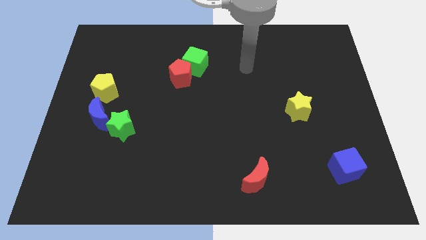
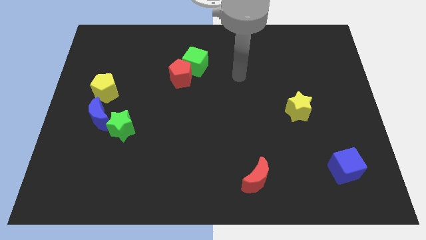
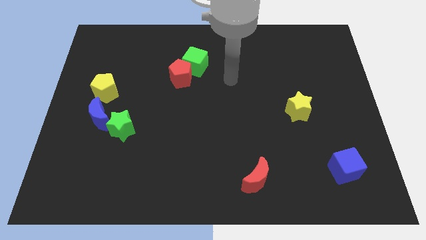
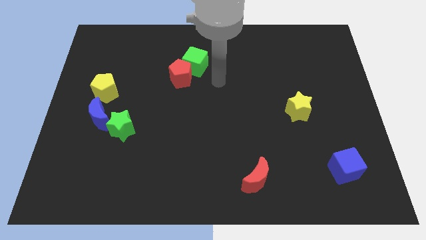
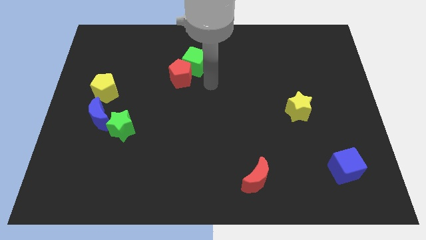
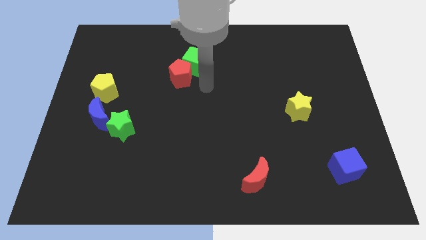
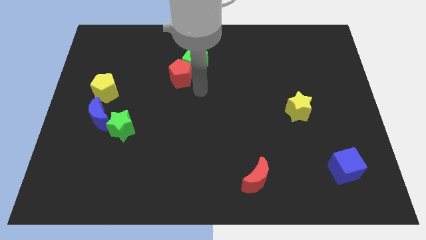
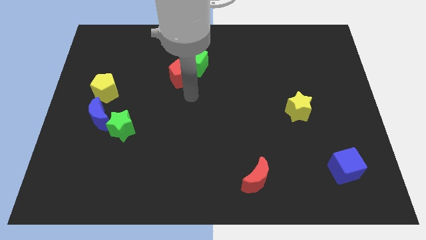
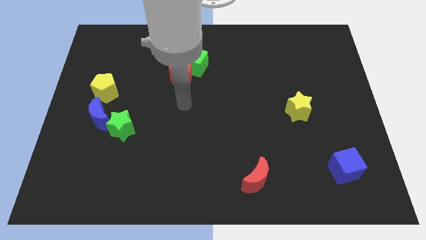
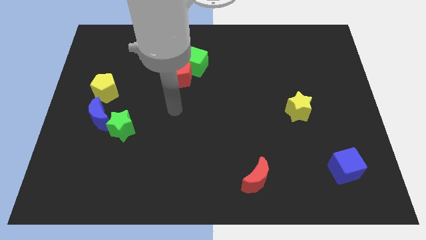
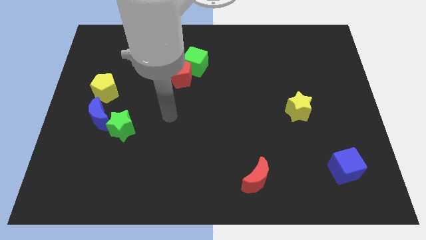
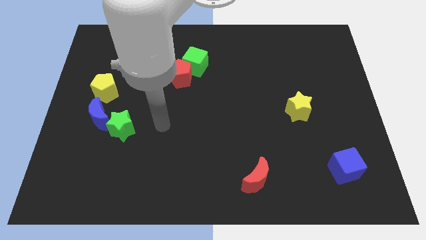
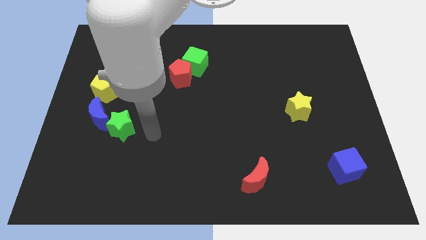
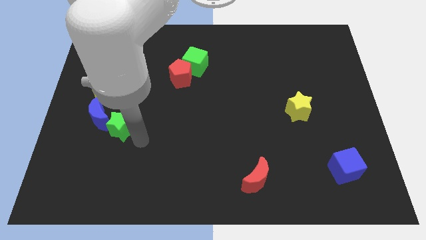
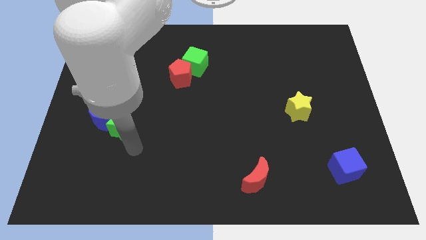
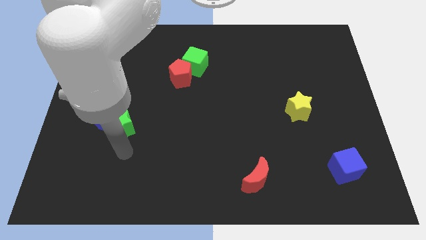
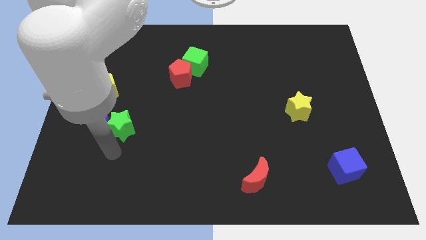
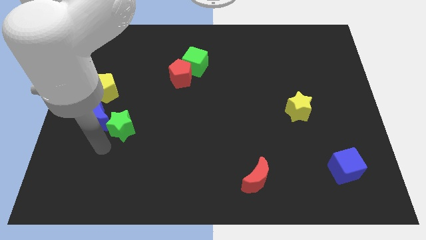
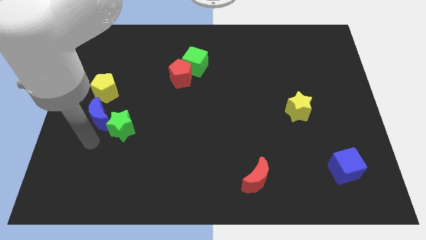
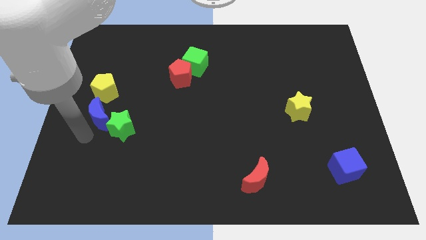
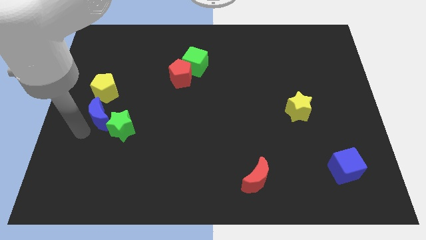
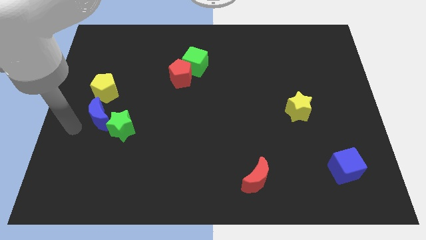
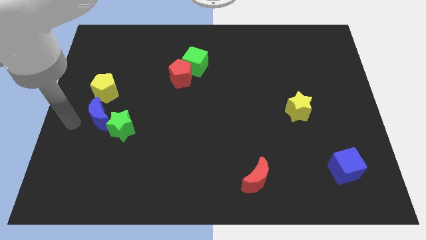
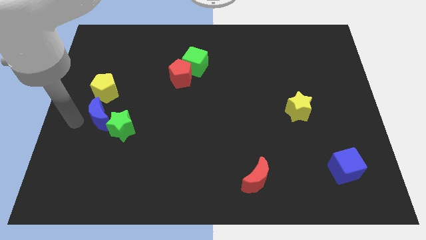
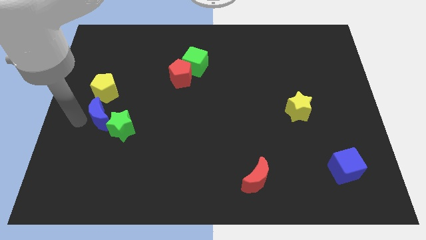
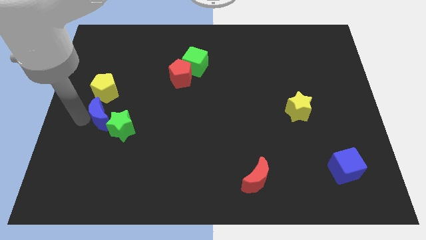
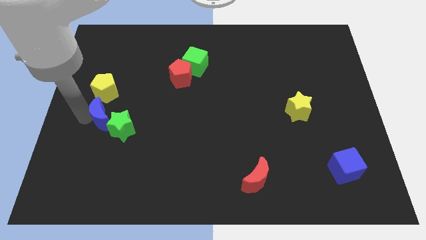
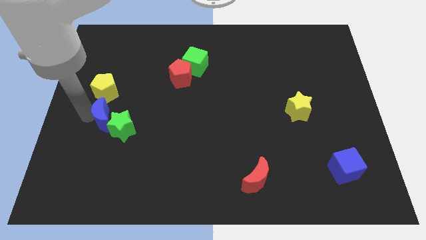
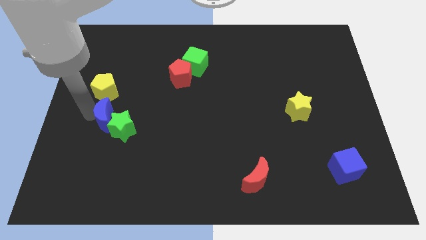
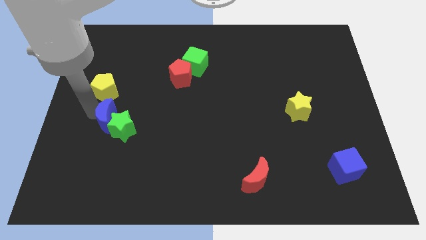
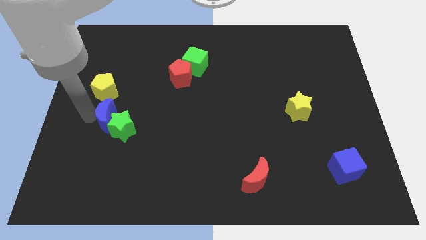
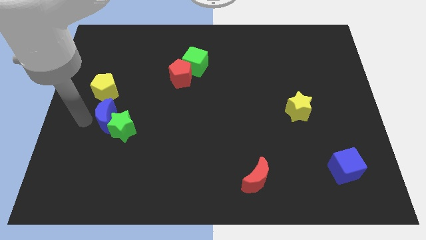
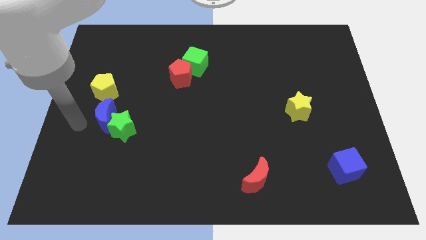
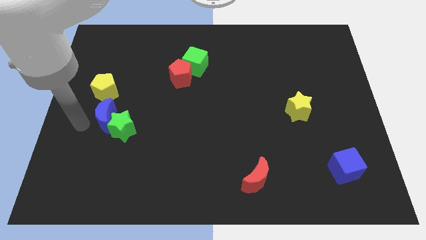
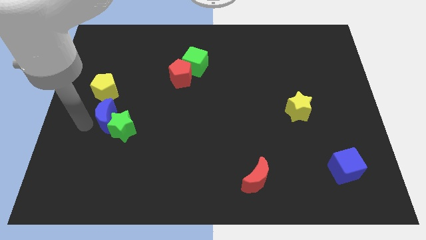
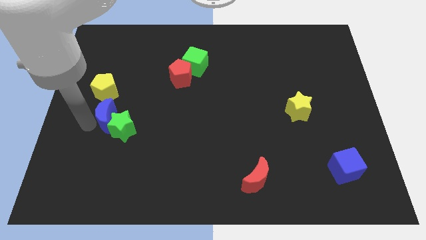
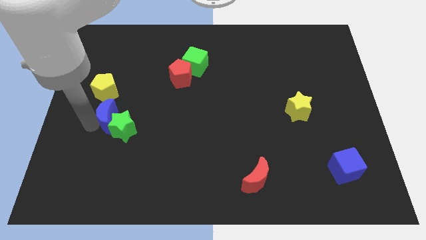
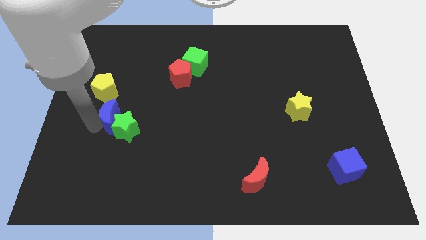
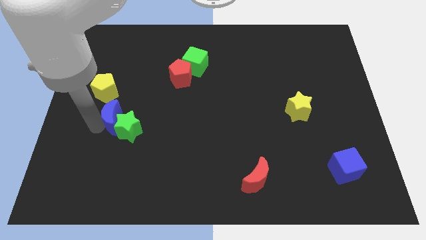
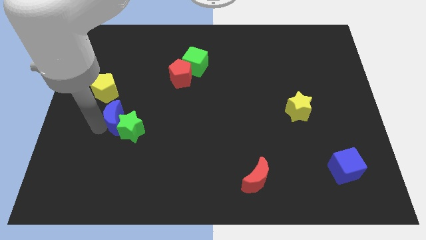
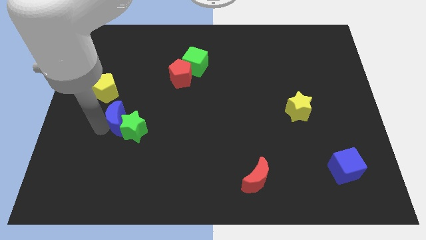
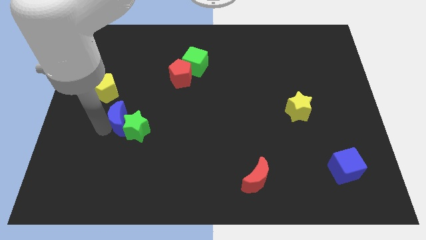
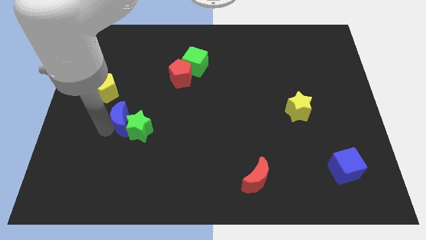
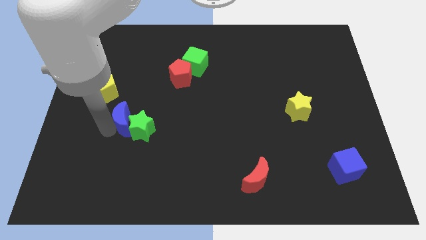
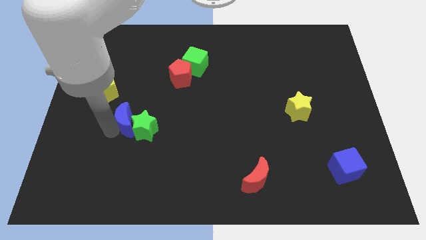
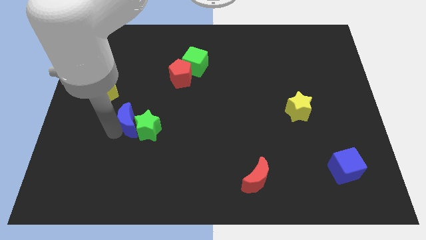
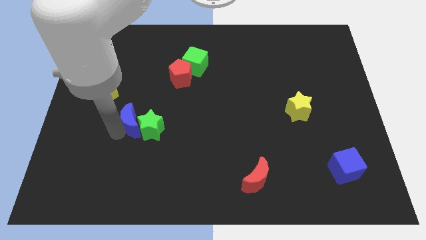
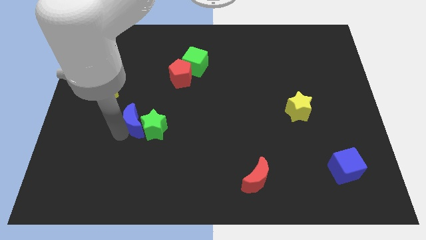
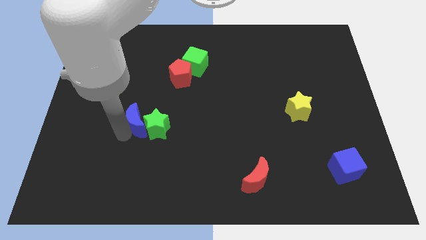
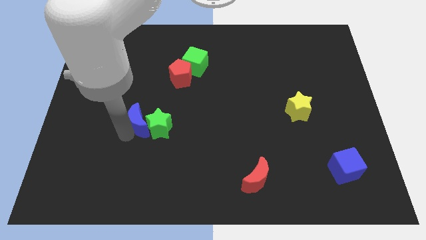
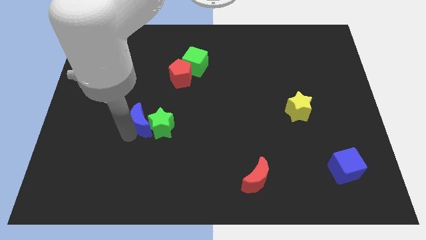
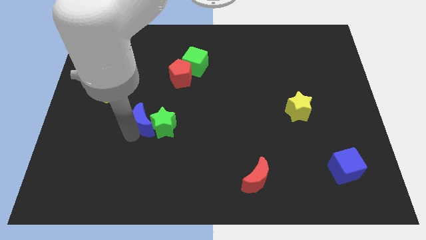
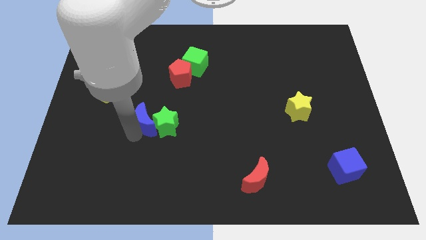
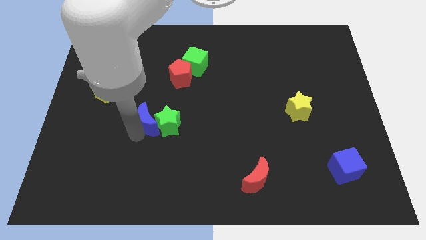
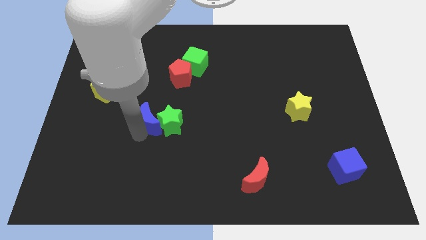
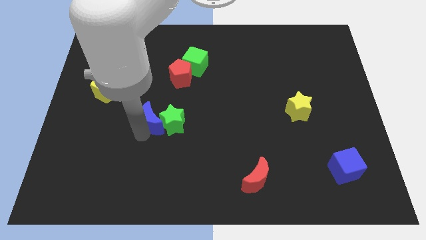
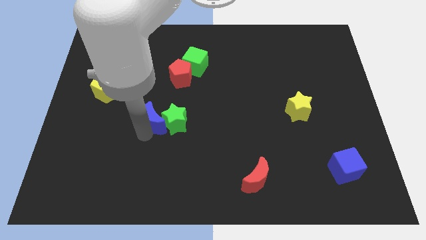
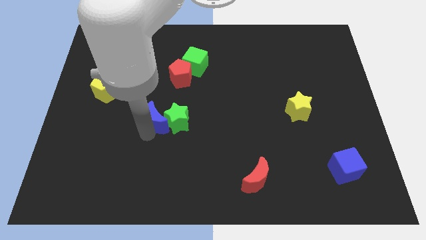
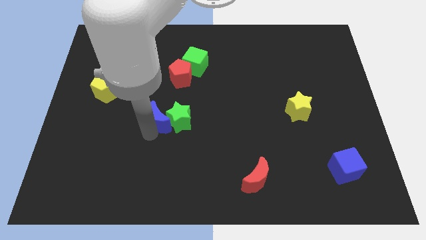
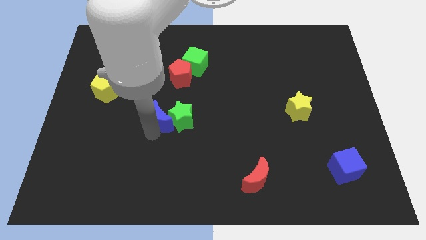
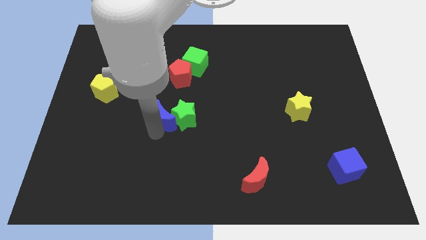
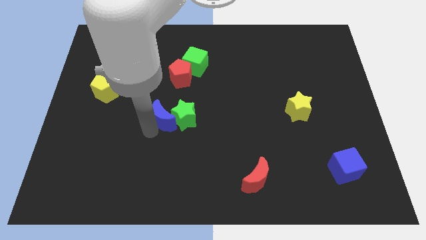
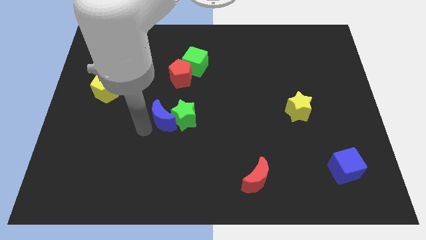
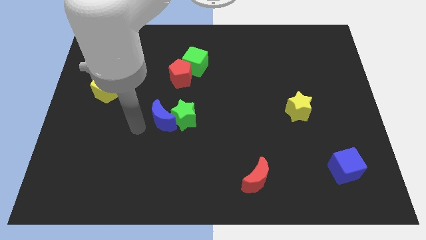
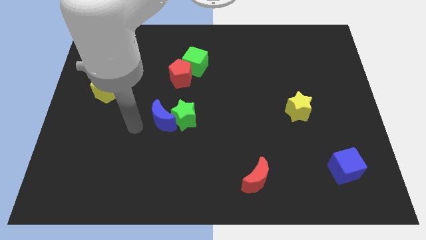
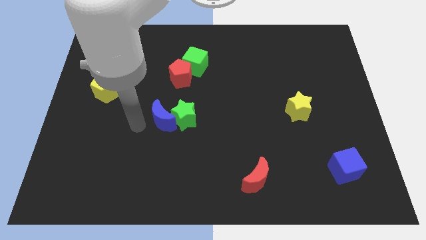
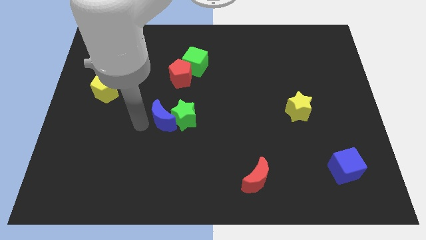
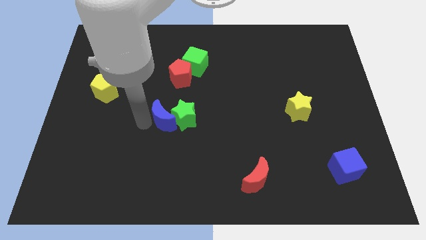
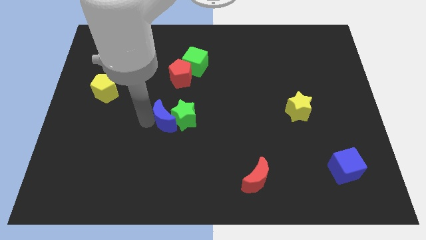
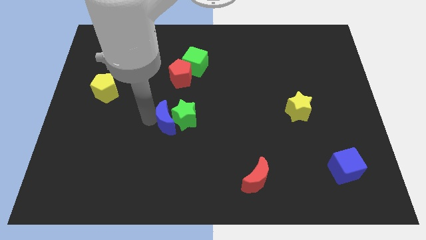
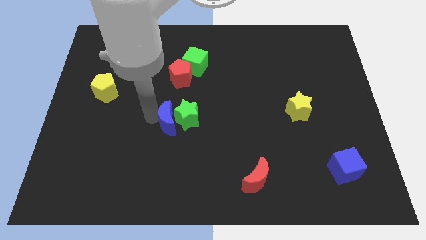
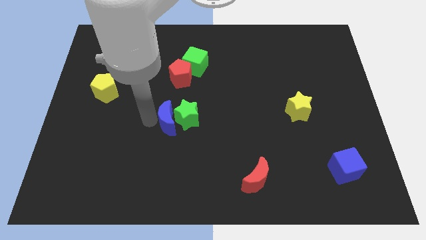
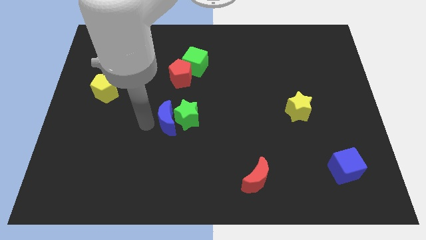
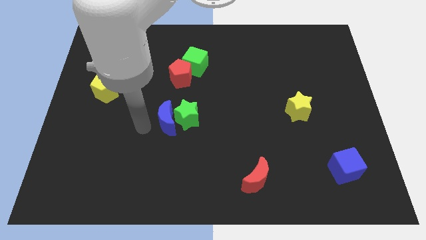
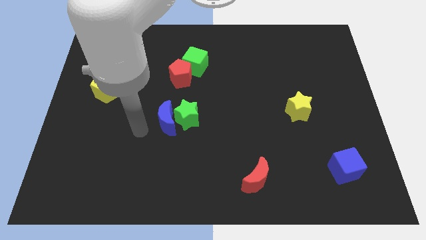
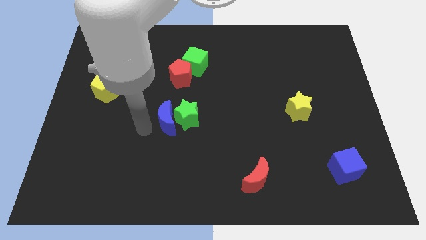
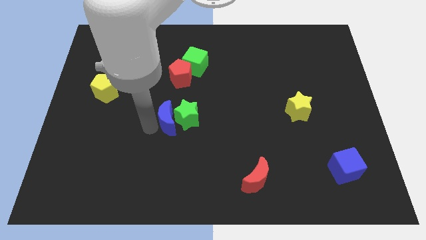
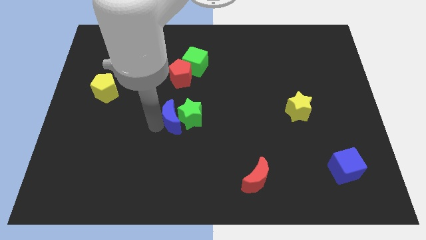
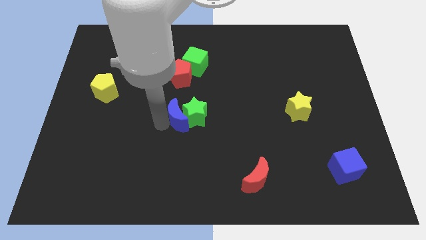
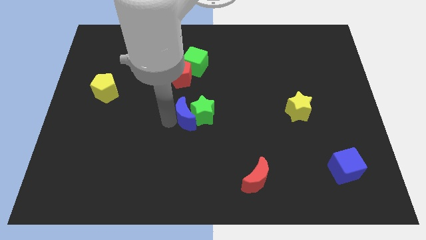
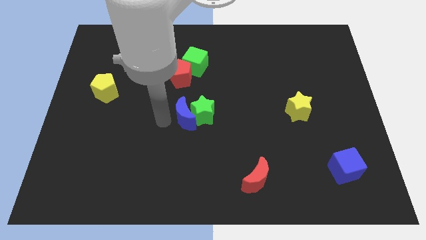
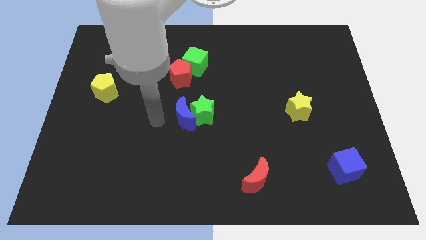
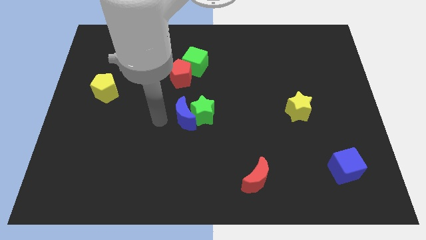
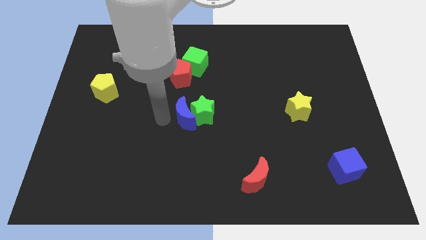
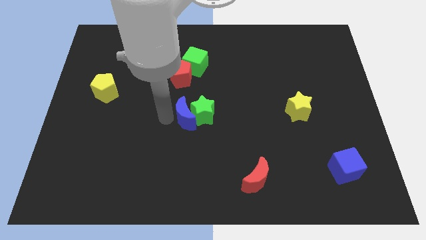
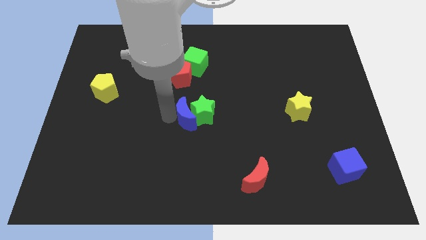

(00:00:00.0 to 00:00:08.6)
push the blue moon to the right
